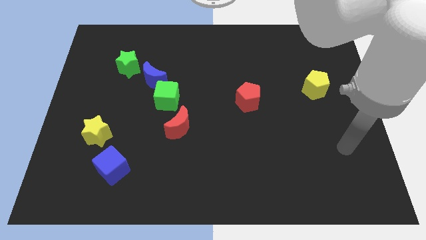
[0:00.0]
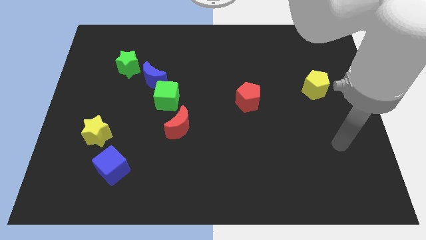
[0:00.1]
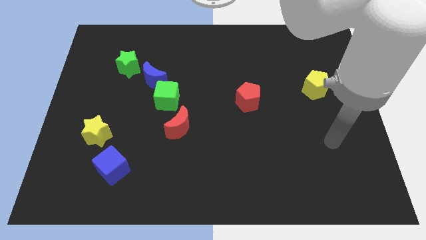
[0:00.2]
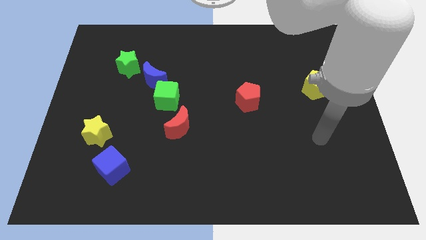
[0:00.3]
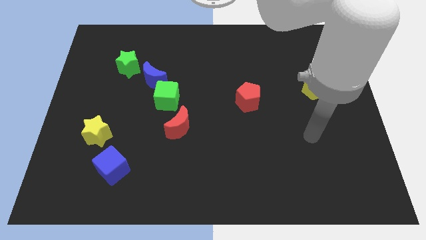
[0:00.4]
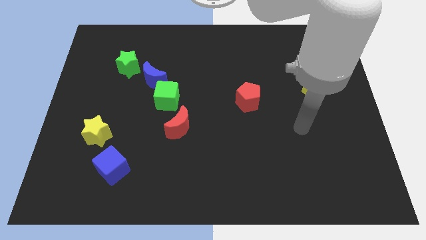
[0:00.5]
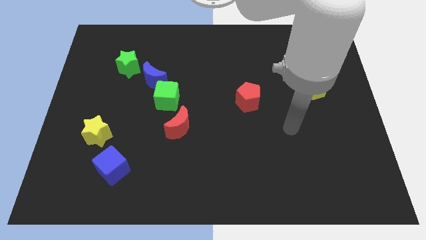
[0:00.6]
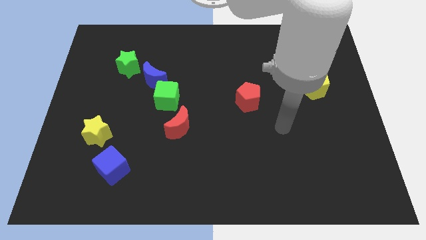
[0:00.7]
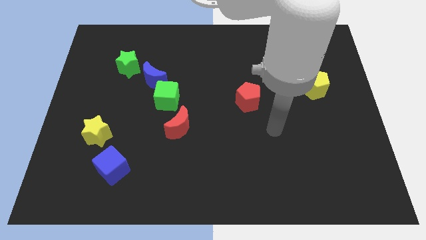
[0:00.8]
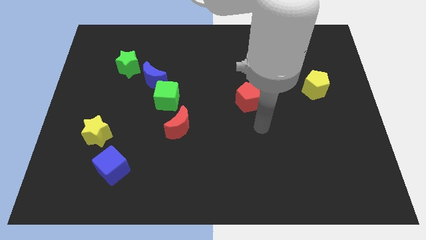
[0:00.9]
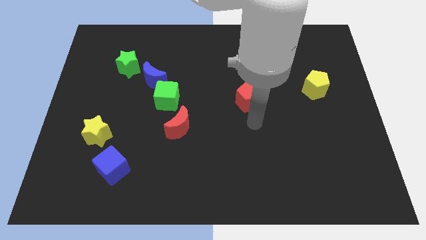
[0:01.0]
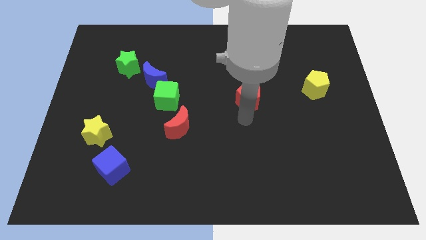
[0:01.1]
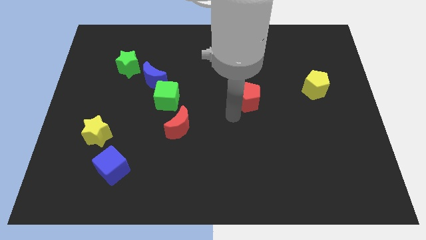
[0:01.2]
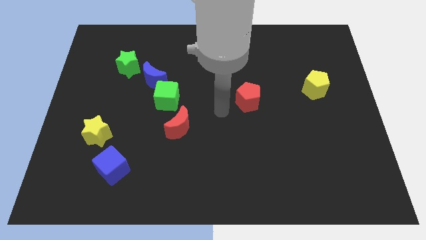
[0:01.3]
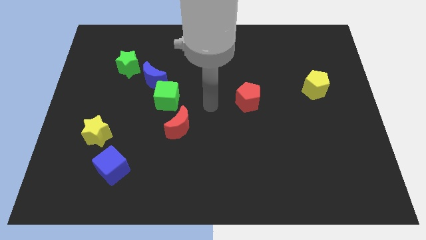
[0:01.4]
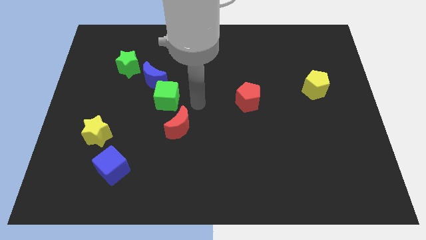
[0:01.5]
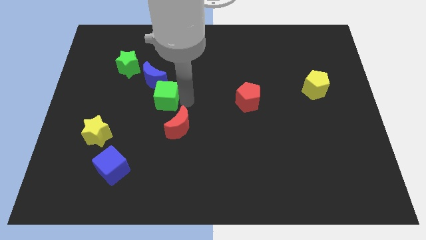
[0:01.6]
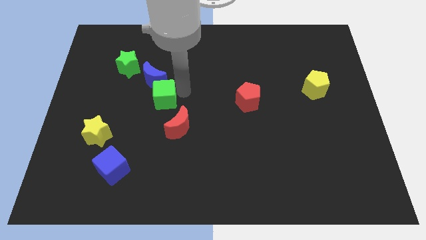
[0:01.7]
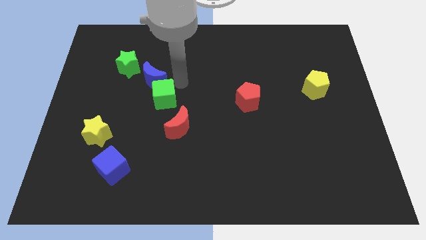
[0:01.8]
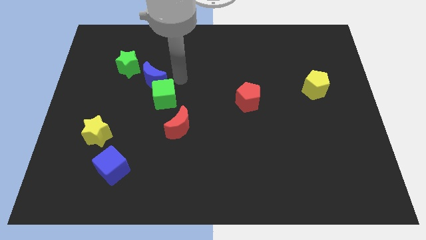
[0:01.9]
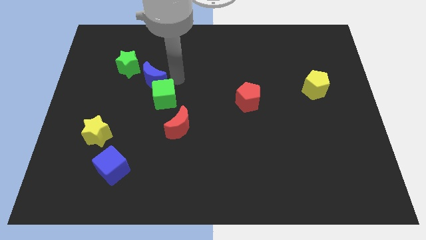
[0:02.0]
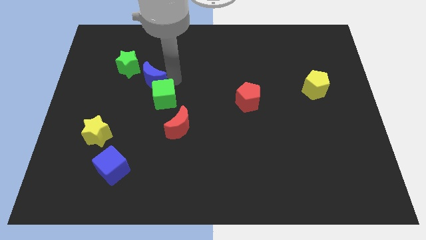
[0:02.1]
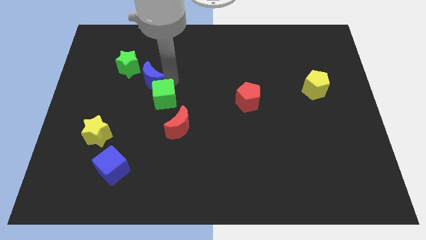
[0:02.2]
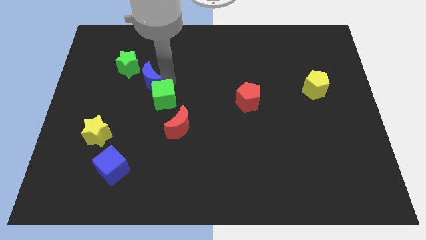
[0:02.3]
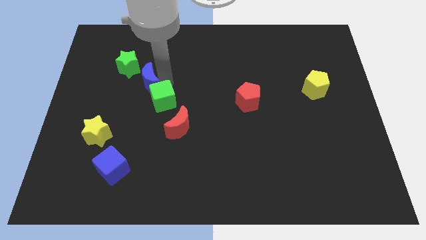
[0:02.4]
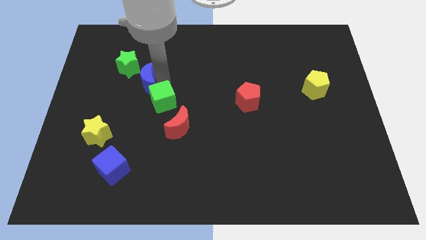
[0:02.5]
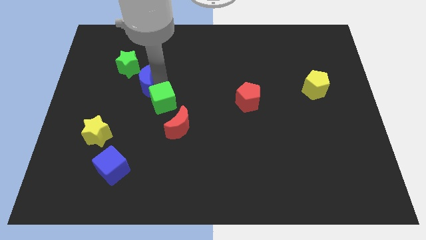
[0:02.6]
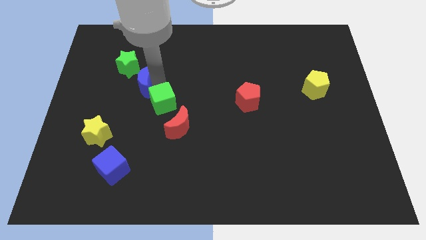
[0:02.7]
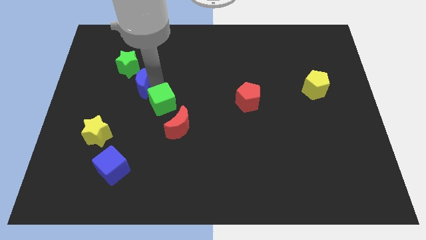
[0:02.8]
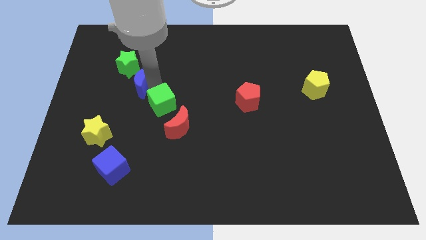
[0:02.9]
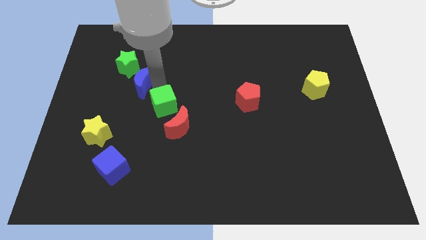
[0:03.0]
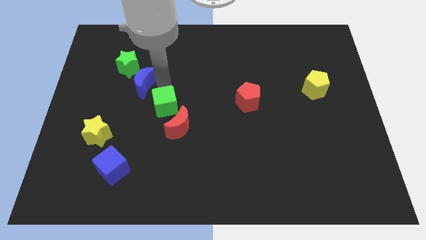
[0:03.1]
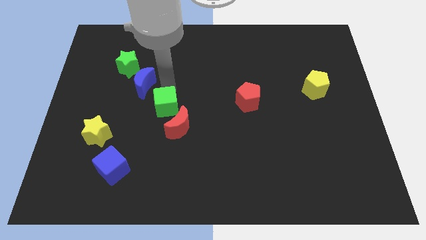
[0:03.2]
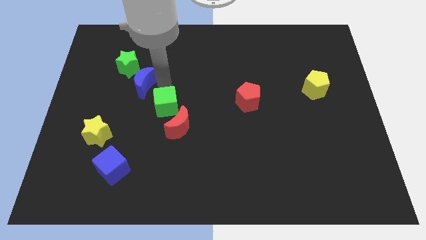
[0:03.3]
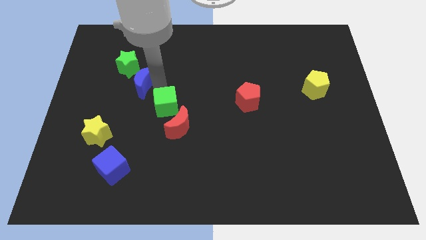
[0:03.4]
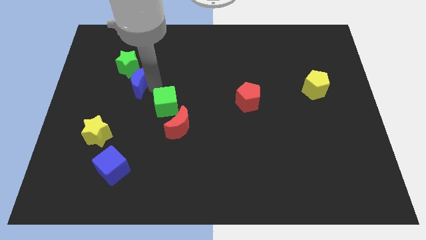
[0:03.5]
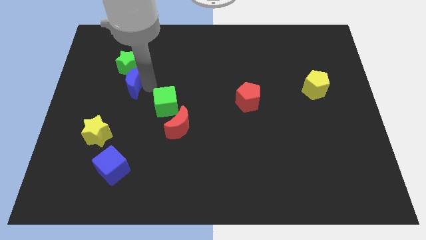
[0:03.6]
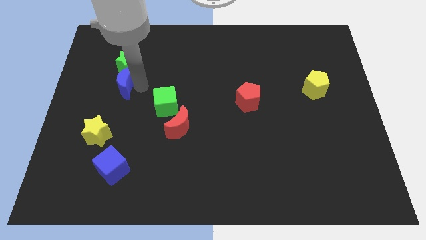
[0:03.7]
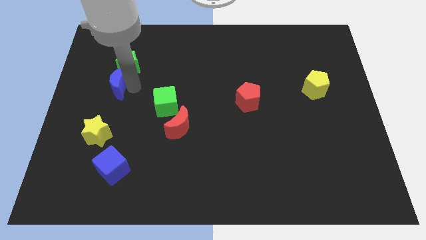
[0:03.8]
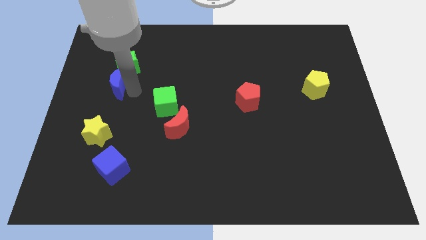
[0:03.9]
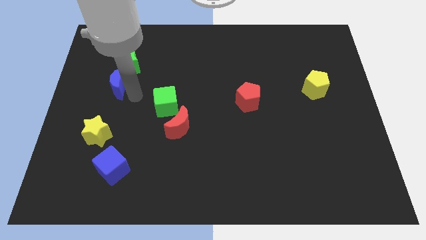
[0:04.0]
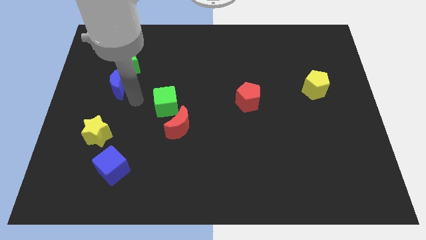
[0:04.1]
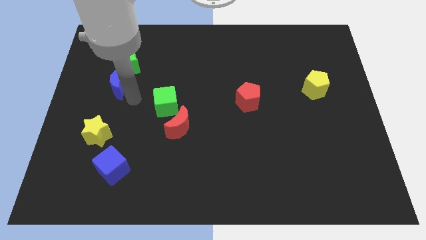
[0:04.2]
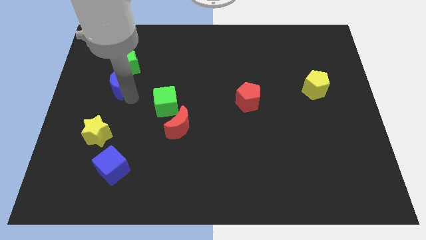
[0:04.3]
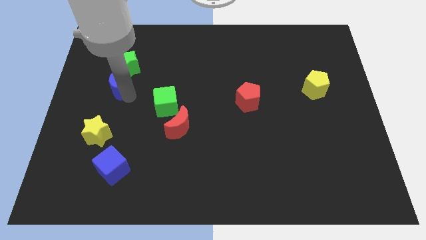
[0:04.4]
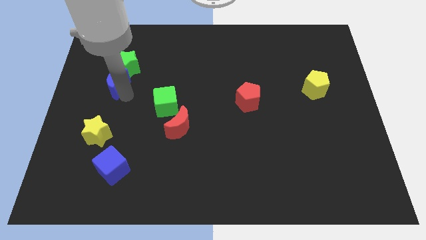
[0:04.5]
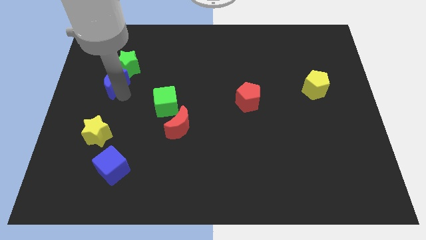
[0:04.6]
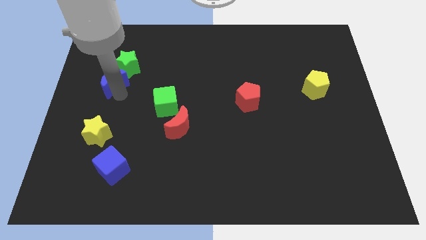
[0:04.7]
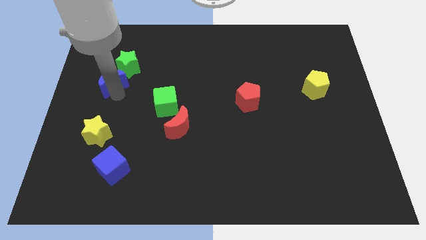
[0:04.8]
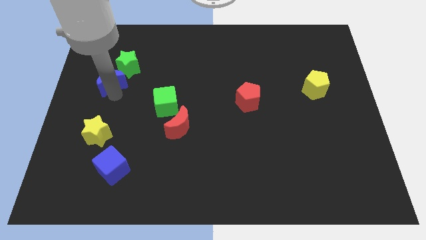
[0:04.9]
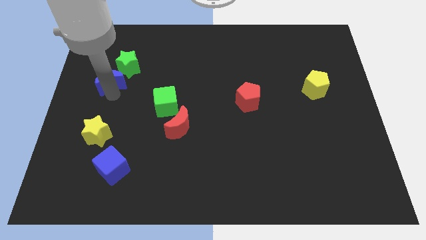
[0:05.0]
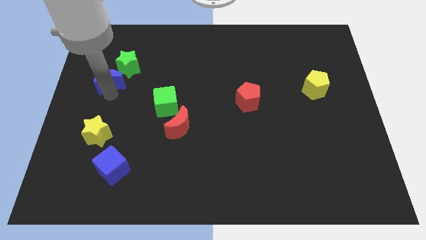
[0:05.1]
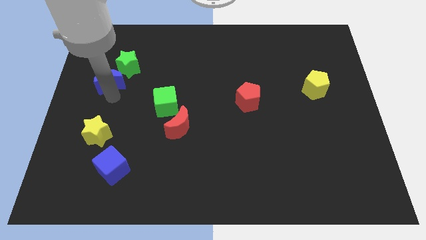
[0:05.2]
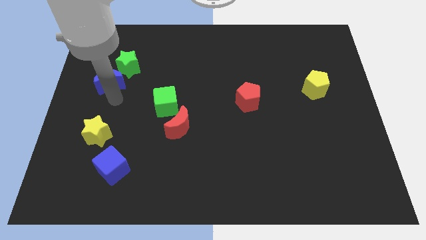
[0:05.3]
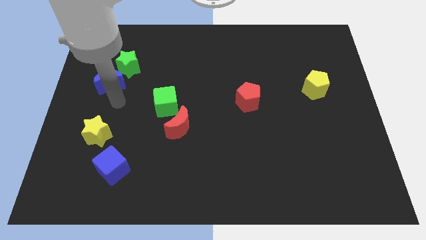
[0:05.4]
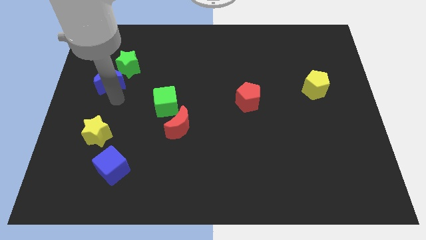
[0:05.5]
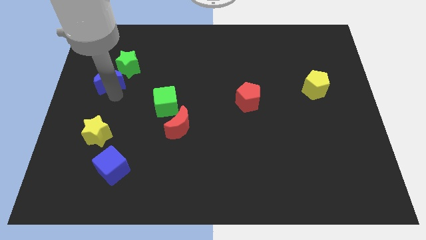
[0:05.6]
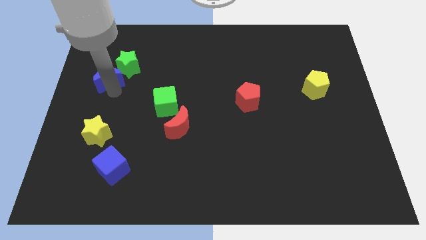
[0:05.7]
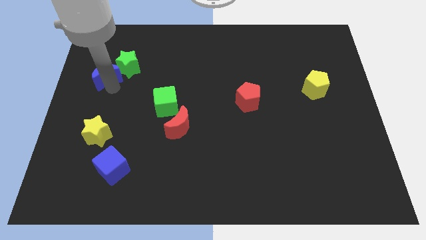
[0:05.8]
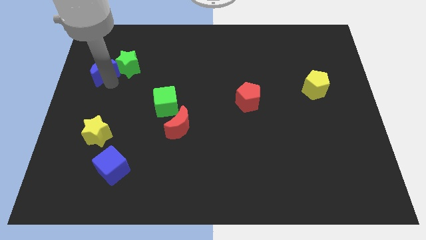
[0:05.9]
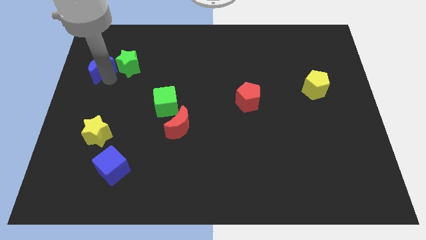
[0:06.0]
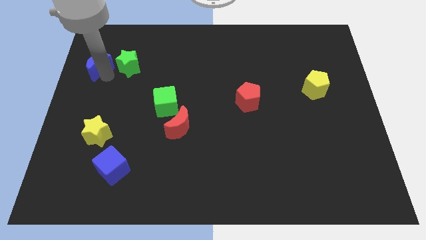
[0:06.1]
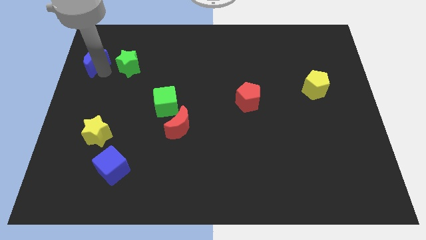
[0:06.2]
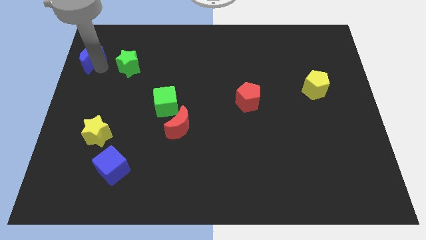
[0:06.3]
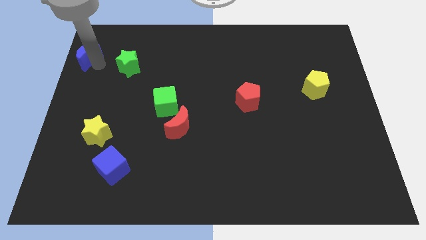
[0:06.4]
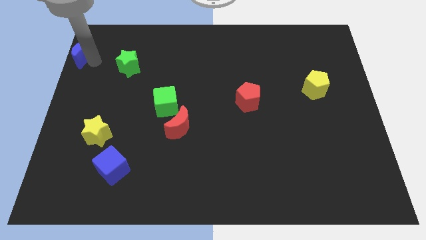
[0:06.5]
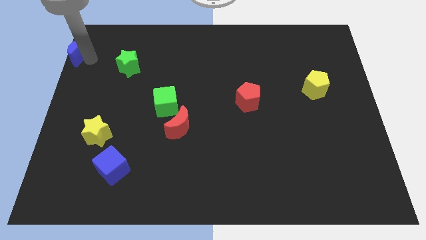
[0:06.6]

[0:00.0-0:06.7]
move the blue moon to the top left corner
